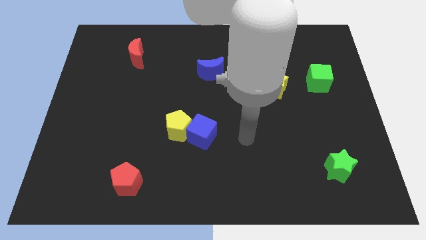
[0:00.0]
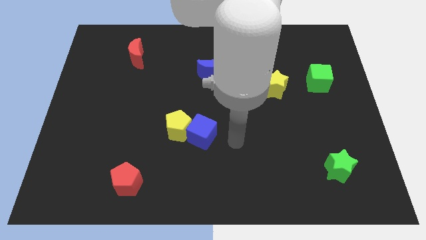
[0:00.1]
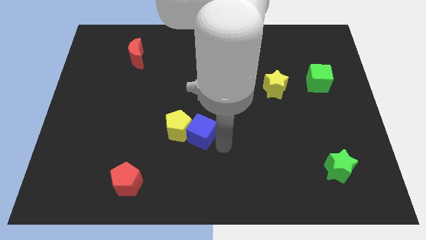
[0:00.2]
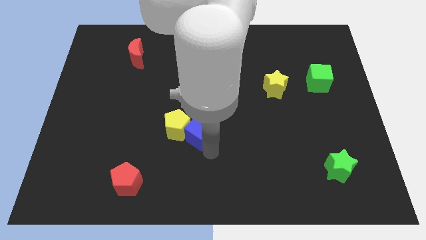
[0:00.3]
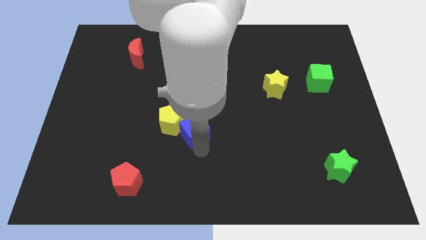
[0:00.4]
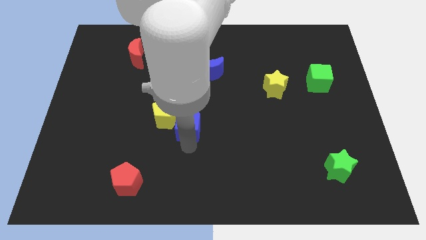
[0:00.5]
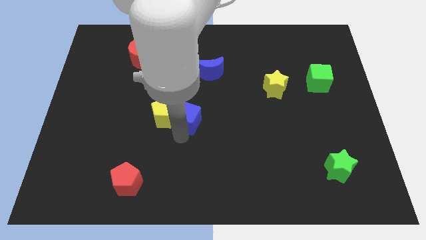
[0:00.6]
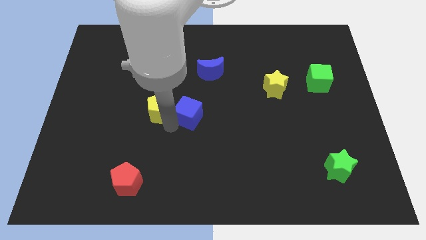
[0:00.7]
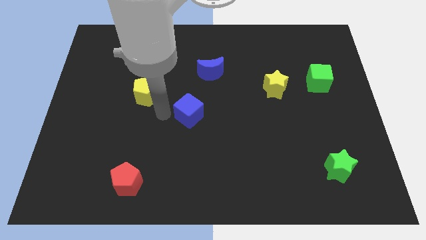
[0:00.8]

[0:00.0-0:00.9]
pull the blue cube apart from the yellow pentagon

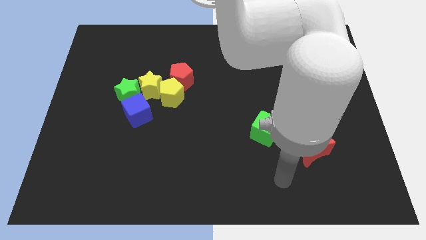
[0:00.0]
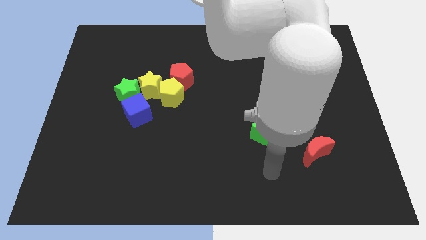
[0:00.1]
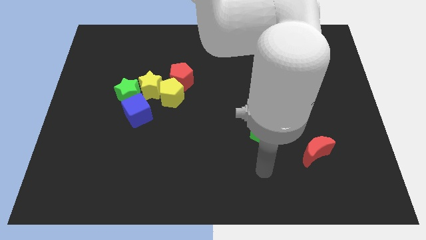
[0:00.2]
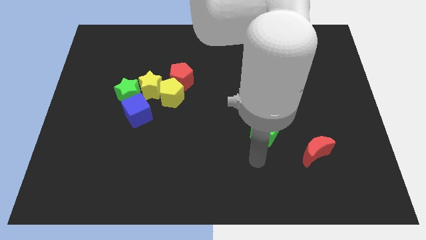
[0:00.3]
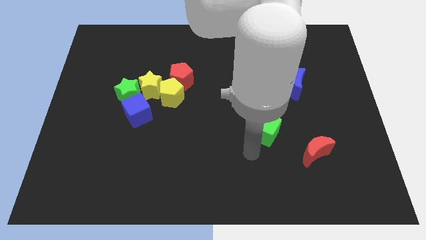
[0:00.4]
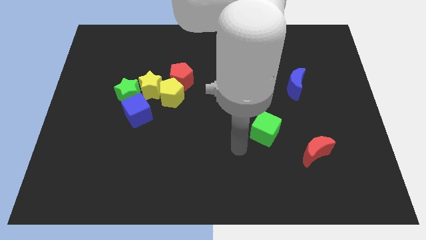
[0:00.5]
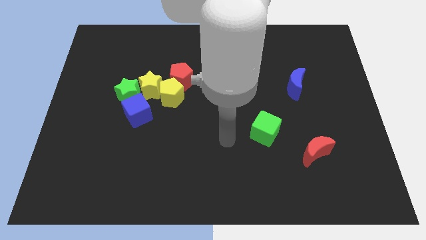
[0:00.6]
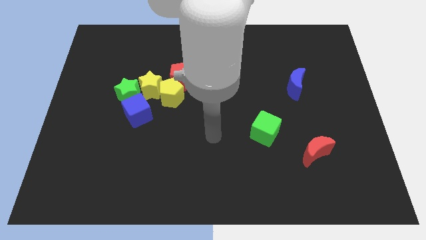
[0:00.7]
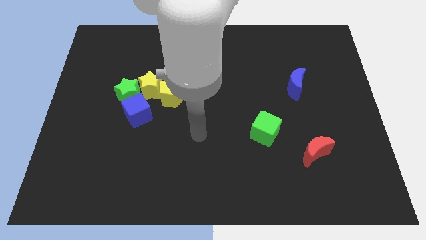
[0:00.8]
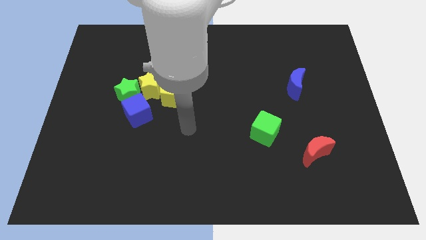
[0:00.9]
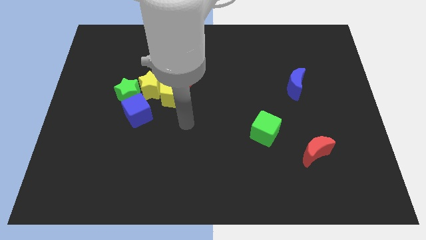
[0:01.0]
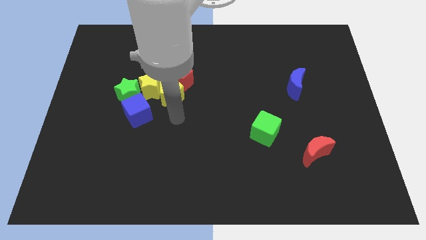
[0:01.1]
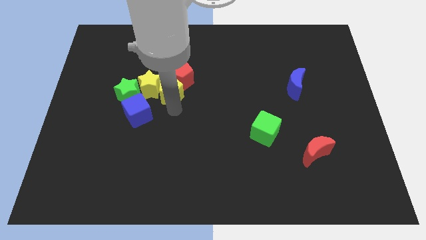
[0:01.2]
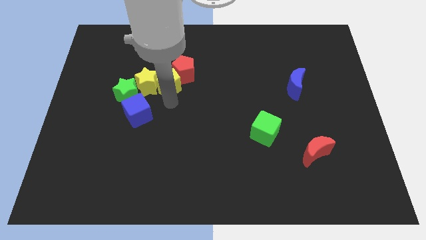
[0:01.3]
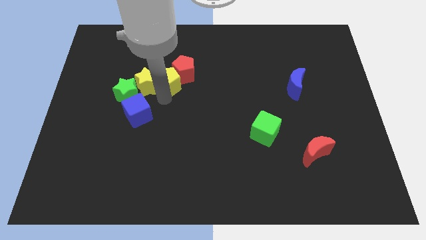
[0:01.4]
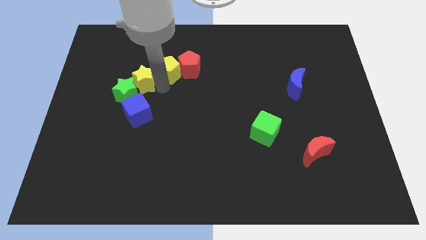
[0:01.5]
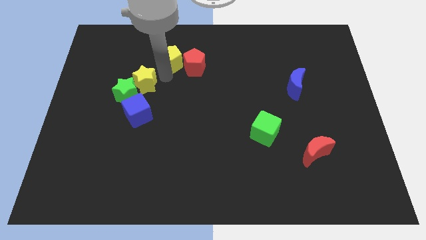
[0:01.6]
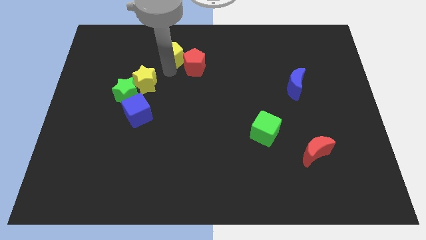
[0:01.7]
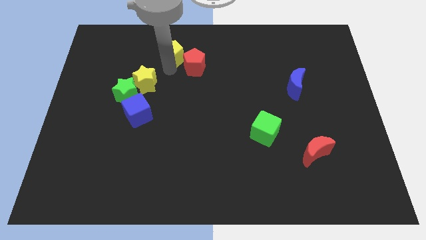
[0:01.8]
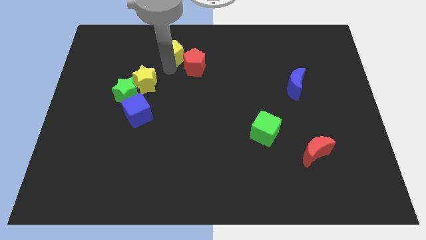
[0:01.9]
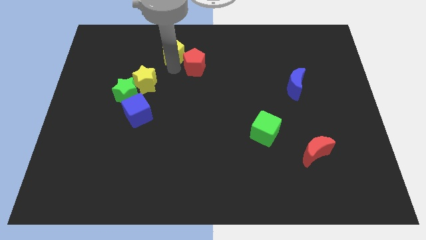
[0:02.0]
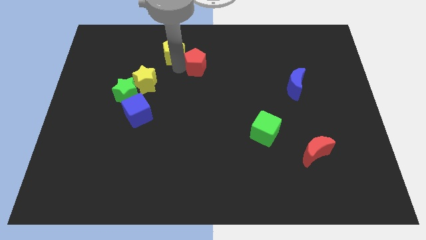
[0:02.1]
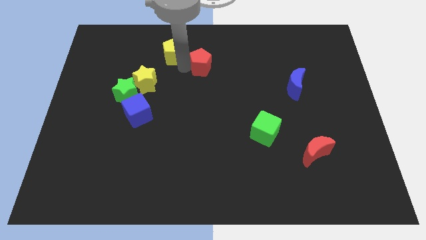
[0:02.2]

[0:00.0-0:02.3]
pull the red pentagon apart from the yellow pentagon and yellow star

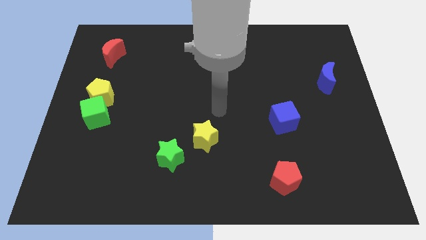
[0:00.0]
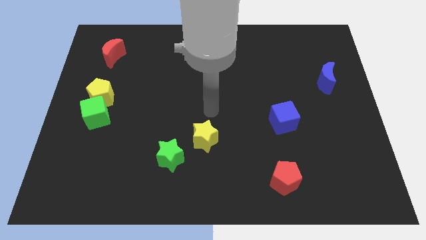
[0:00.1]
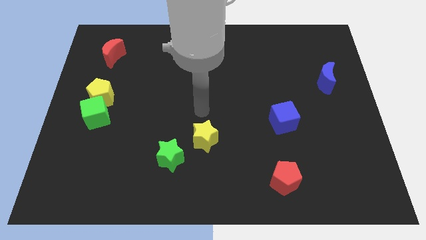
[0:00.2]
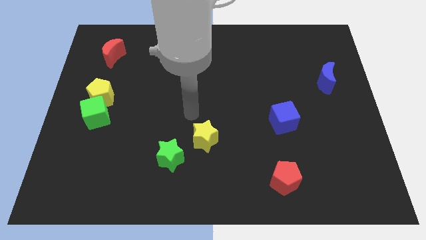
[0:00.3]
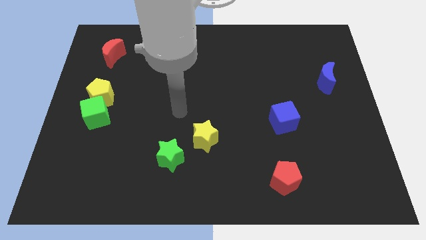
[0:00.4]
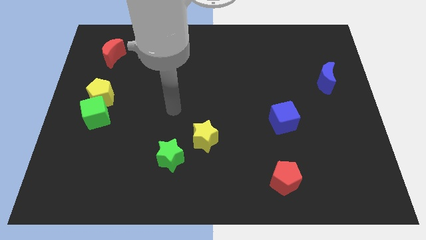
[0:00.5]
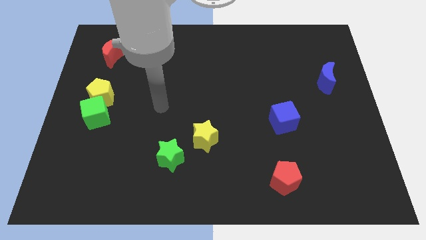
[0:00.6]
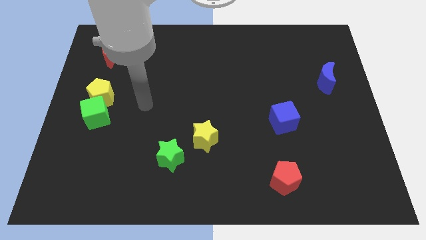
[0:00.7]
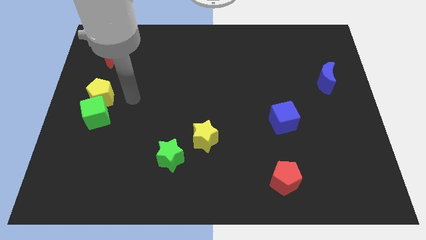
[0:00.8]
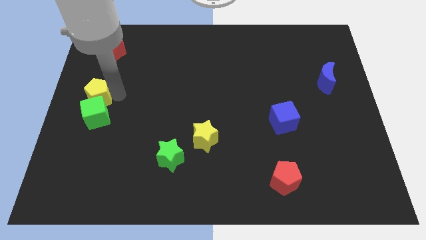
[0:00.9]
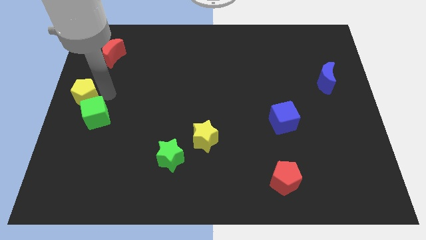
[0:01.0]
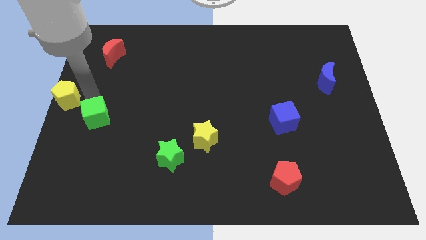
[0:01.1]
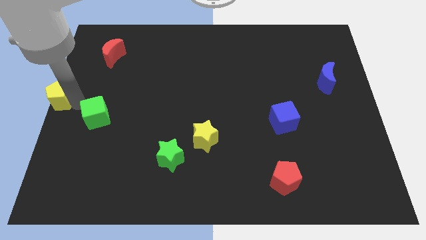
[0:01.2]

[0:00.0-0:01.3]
pull the green cube apart from the yellow pentagon

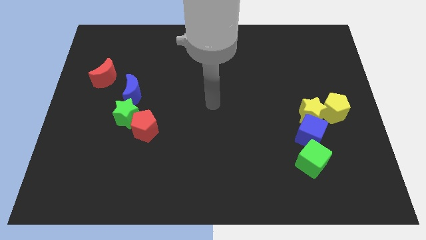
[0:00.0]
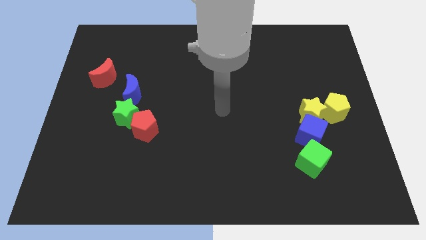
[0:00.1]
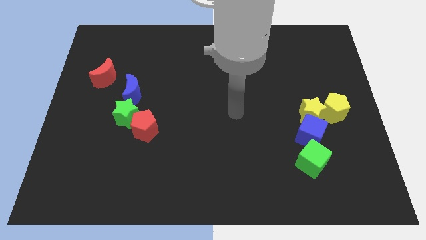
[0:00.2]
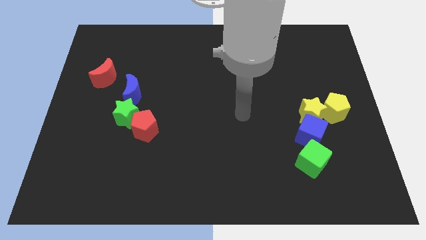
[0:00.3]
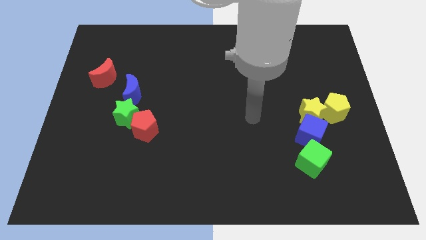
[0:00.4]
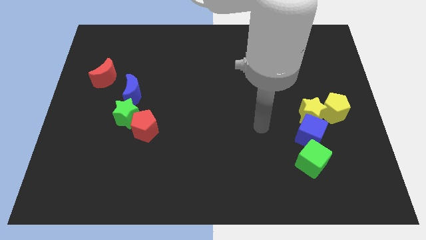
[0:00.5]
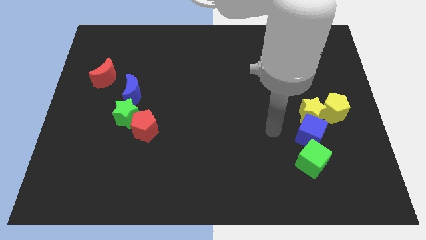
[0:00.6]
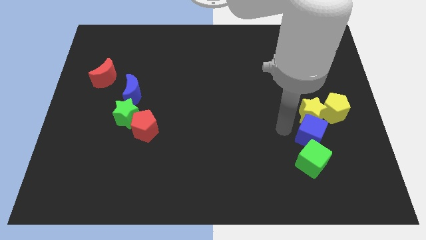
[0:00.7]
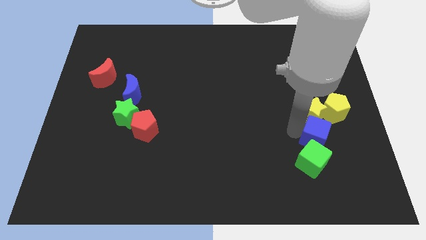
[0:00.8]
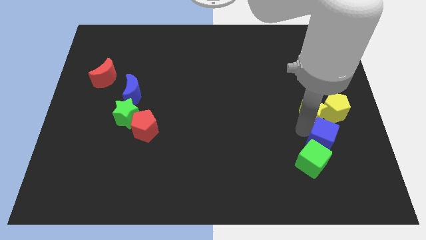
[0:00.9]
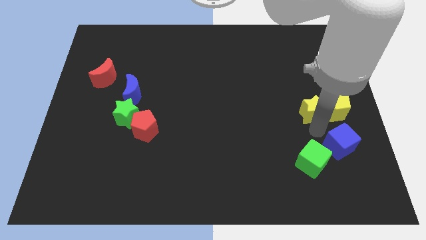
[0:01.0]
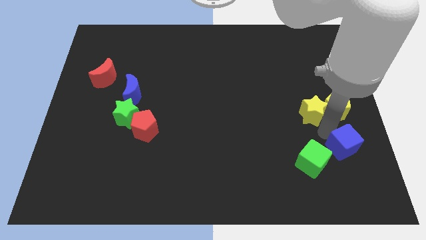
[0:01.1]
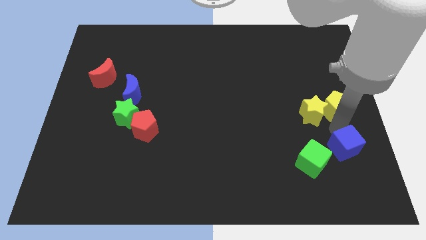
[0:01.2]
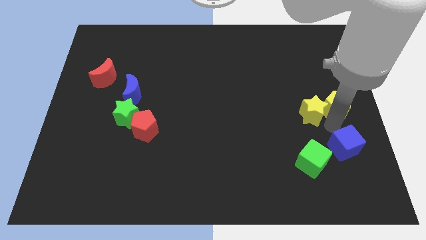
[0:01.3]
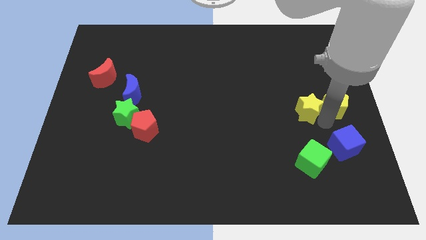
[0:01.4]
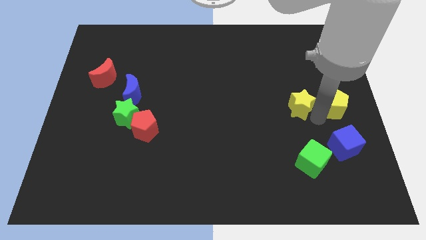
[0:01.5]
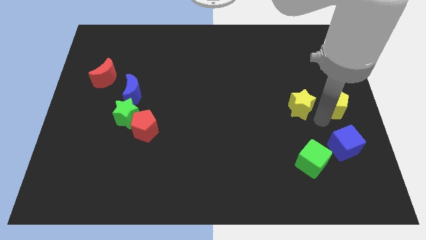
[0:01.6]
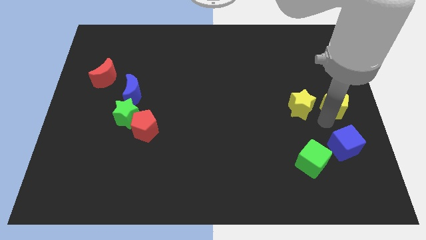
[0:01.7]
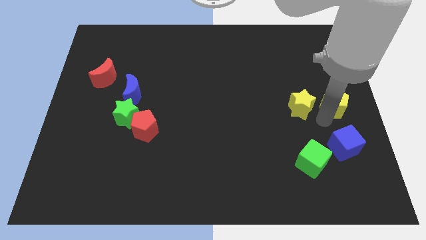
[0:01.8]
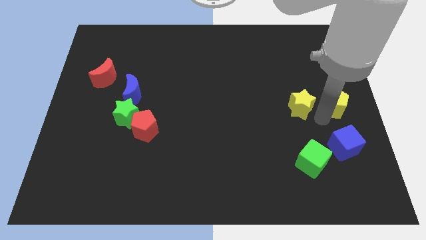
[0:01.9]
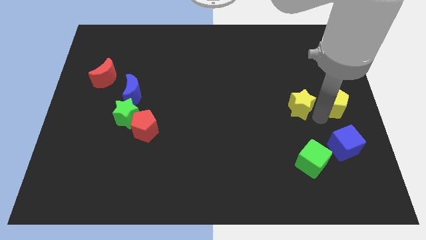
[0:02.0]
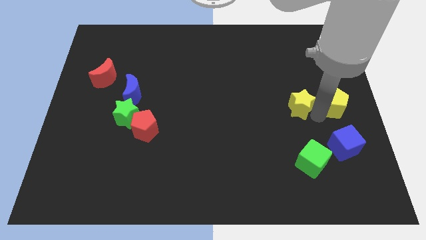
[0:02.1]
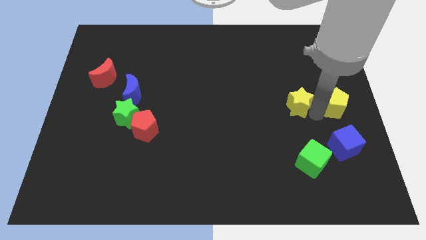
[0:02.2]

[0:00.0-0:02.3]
pull the yellow star apart from the blue cube and yellow pentagon

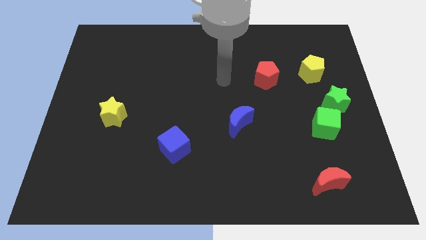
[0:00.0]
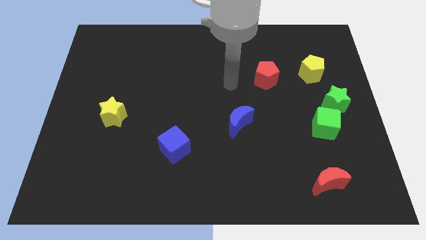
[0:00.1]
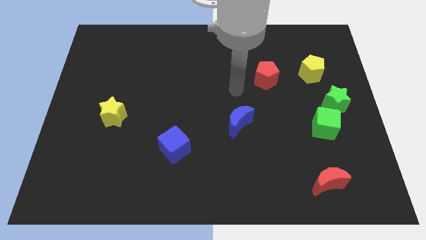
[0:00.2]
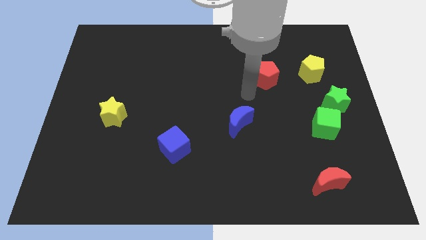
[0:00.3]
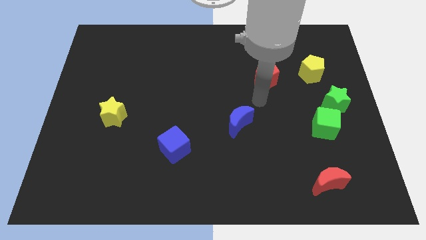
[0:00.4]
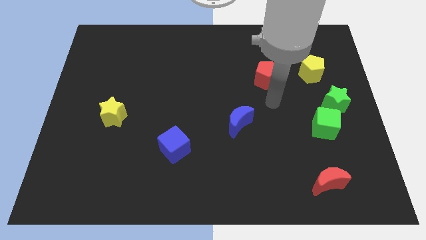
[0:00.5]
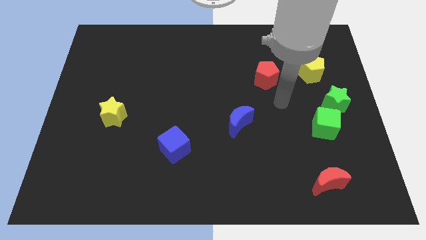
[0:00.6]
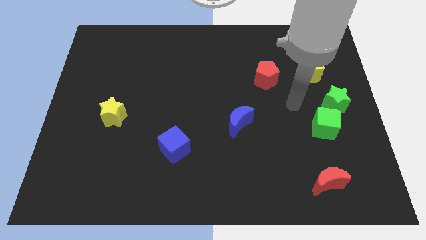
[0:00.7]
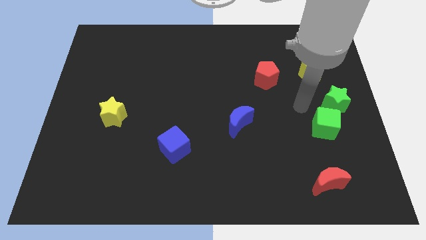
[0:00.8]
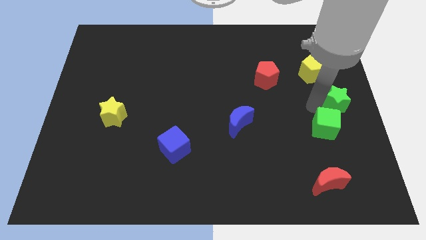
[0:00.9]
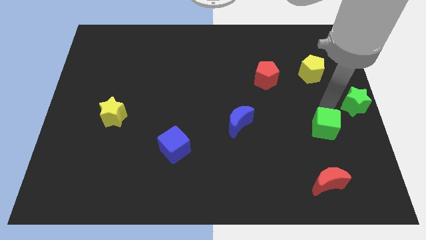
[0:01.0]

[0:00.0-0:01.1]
separate the green cube from the green star

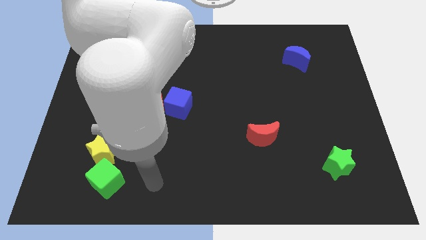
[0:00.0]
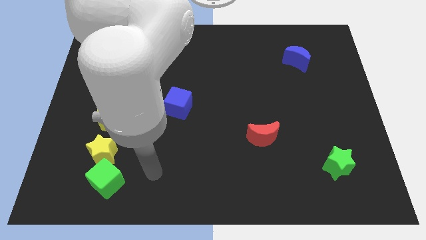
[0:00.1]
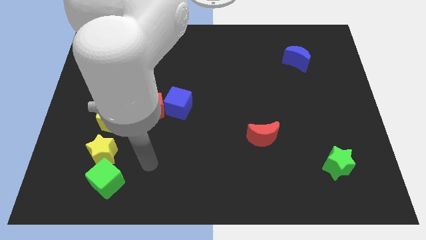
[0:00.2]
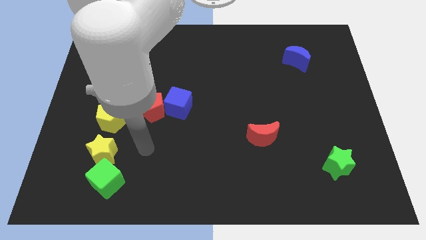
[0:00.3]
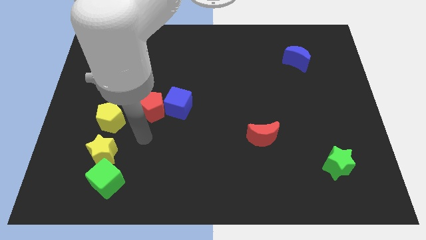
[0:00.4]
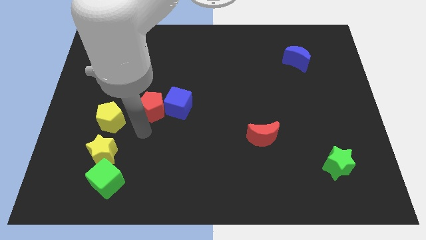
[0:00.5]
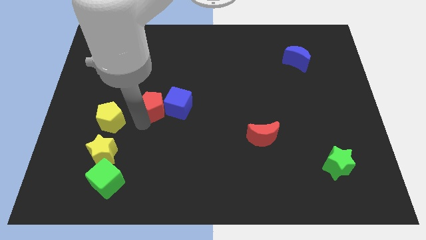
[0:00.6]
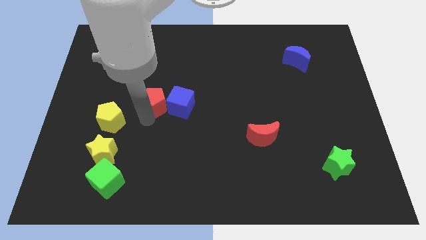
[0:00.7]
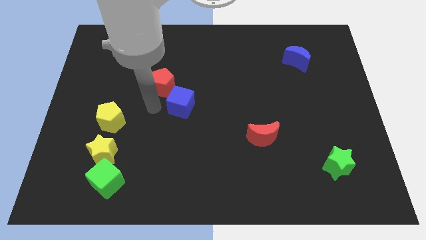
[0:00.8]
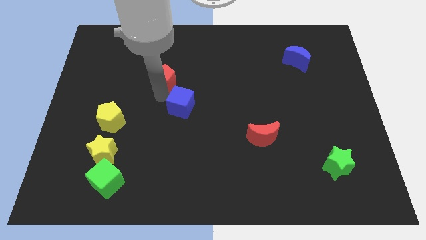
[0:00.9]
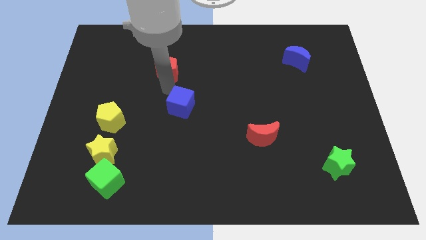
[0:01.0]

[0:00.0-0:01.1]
move the blue cube away from the red pentagon

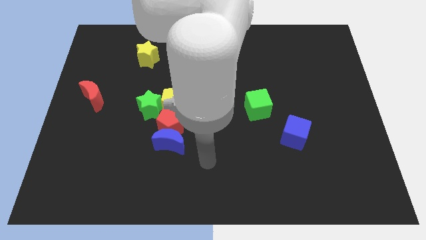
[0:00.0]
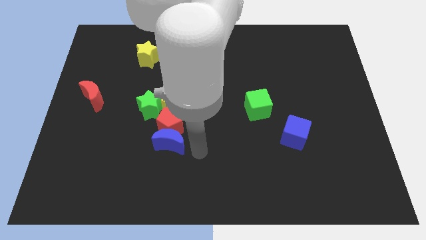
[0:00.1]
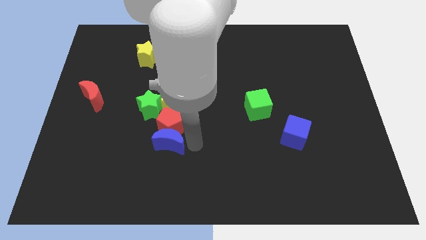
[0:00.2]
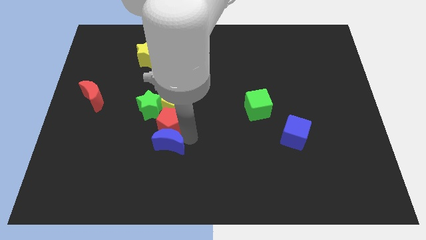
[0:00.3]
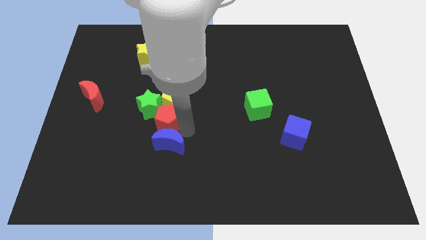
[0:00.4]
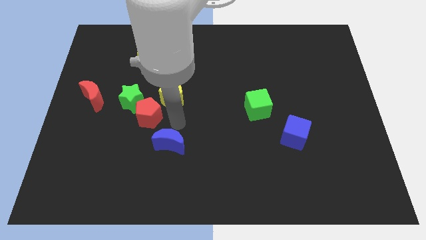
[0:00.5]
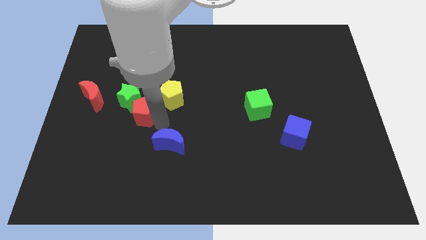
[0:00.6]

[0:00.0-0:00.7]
move the blue moon away from the red pentagon
